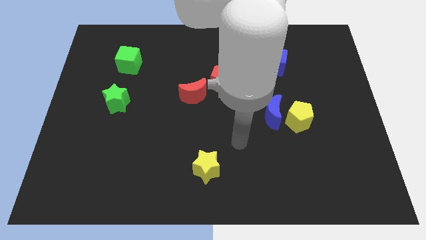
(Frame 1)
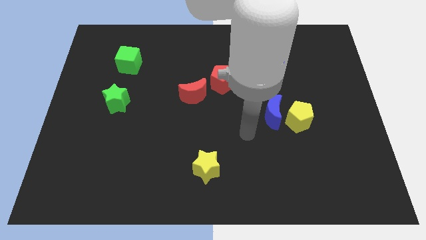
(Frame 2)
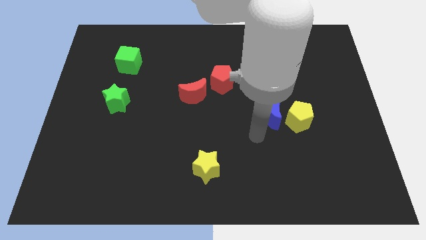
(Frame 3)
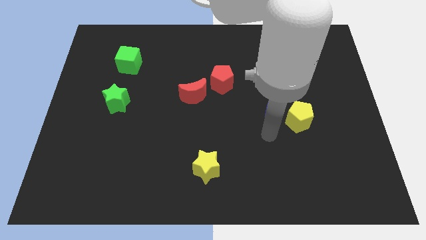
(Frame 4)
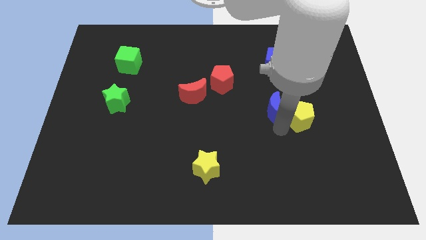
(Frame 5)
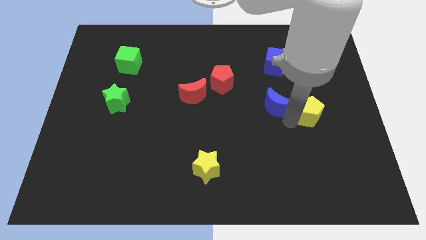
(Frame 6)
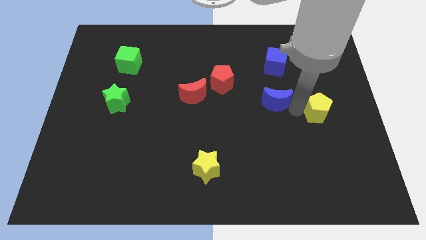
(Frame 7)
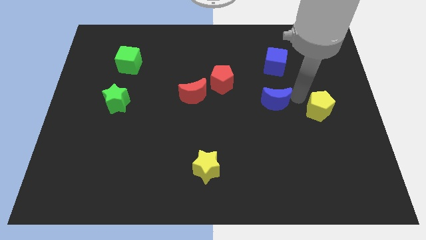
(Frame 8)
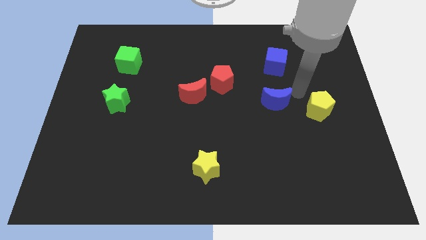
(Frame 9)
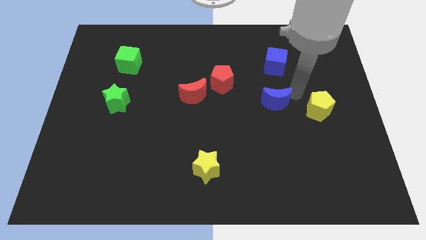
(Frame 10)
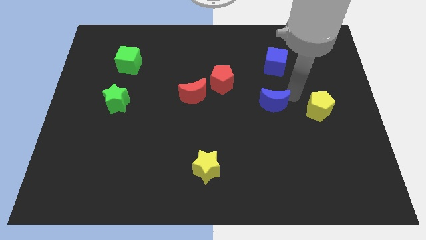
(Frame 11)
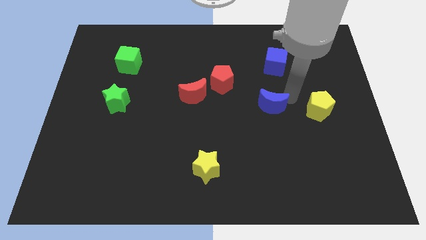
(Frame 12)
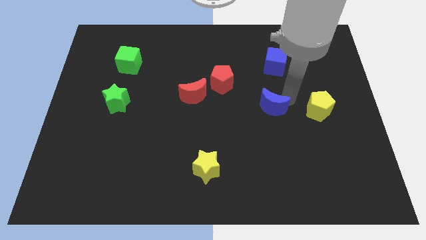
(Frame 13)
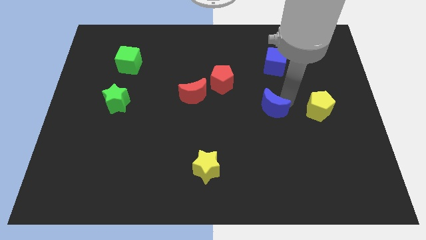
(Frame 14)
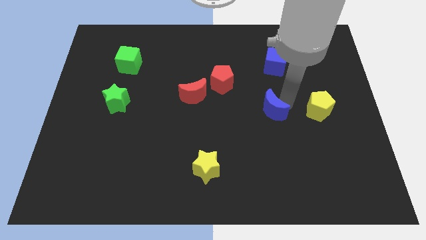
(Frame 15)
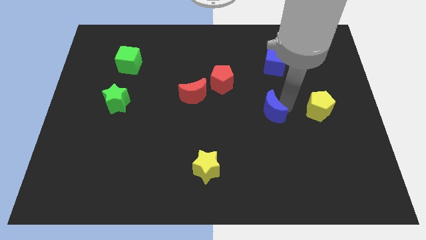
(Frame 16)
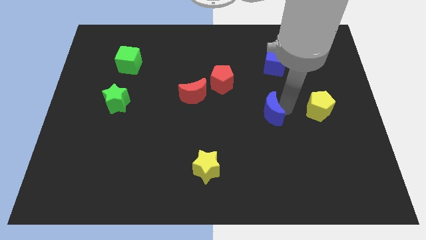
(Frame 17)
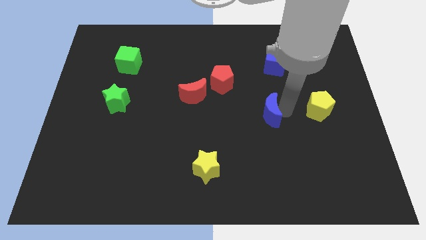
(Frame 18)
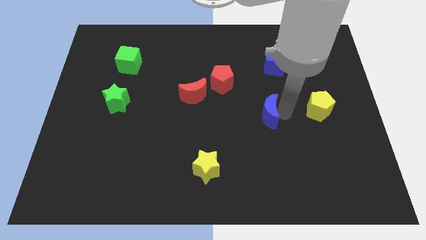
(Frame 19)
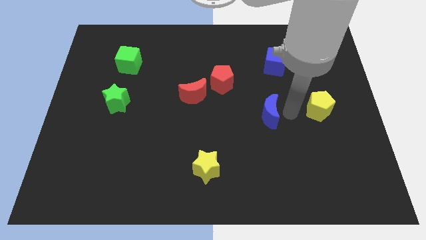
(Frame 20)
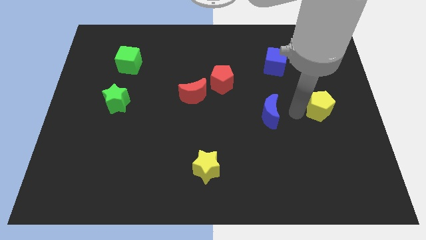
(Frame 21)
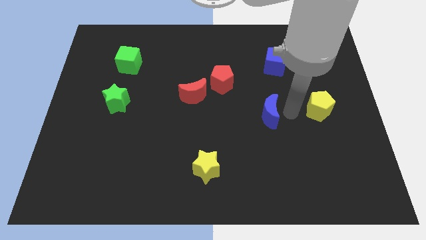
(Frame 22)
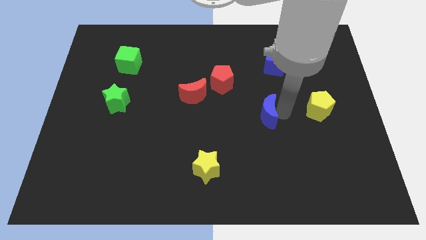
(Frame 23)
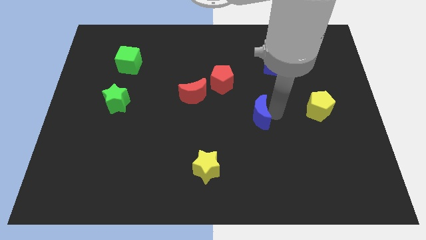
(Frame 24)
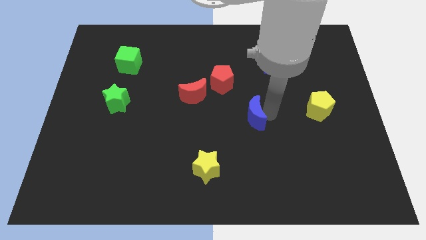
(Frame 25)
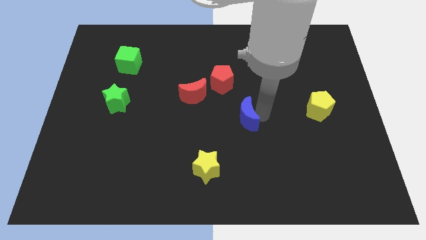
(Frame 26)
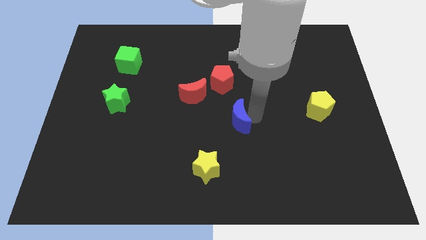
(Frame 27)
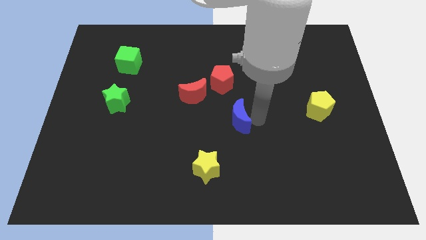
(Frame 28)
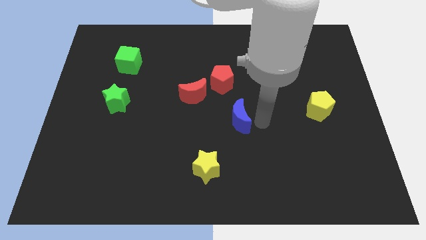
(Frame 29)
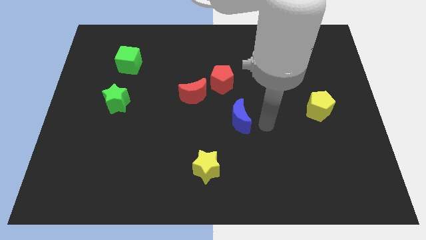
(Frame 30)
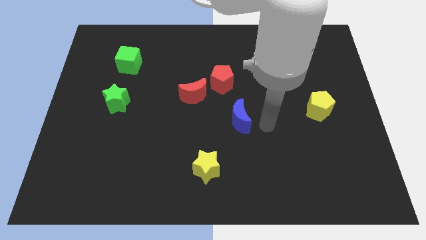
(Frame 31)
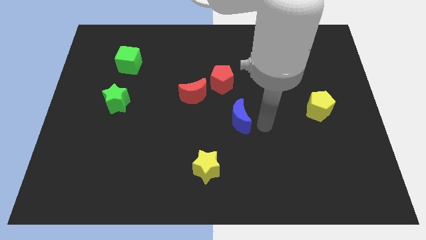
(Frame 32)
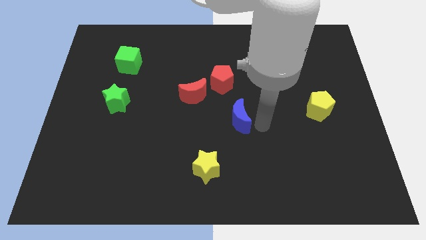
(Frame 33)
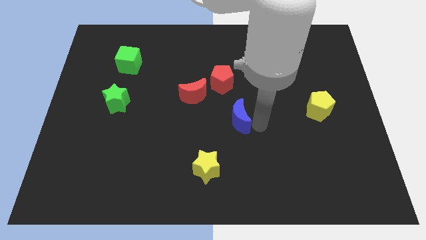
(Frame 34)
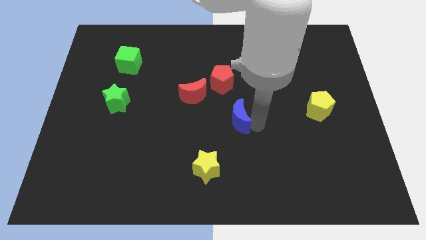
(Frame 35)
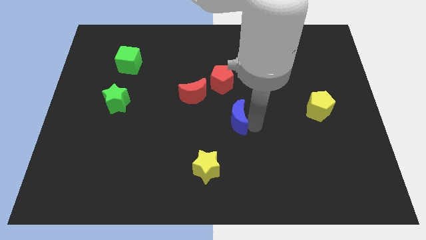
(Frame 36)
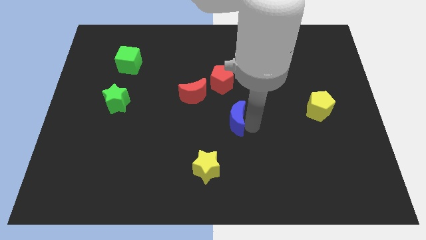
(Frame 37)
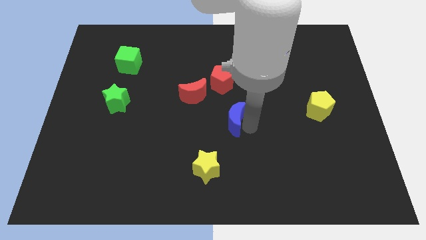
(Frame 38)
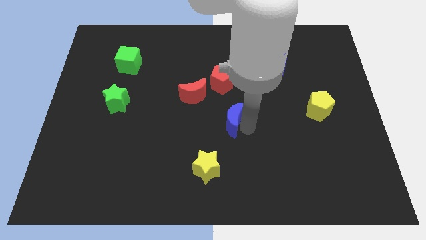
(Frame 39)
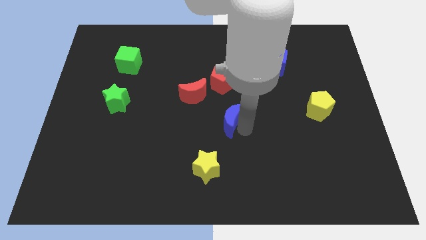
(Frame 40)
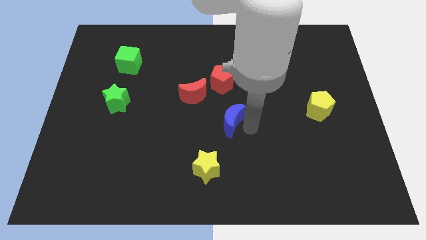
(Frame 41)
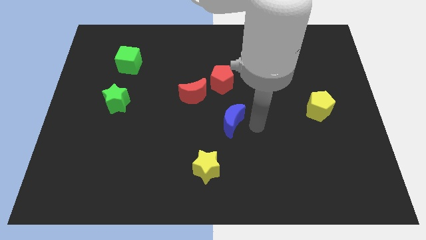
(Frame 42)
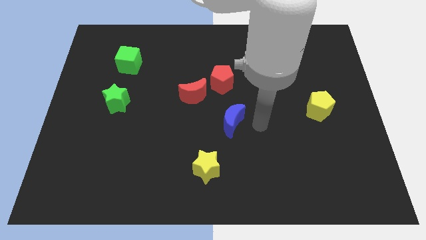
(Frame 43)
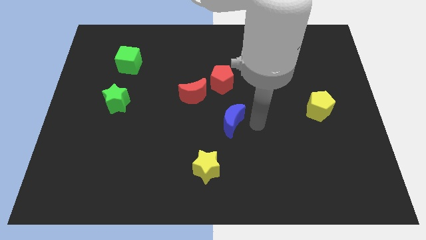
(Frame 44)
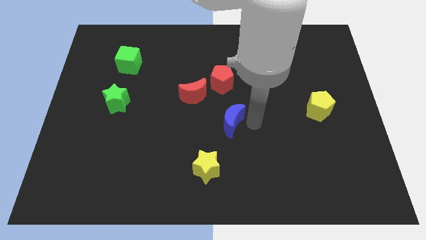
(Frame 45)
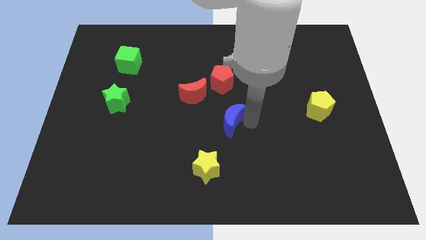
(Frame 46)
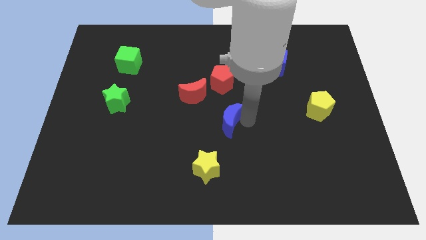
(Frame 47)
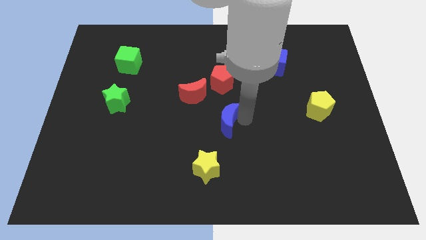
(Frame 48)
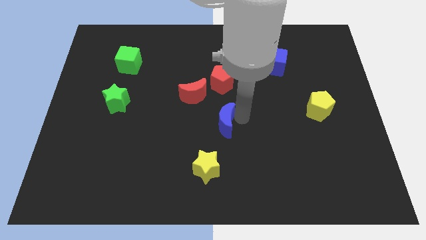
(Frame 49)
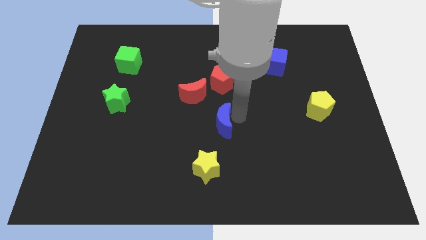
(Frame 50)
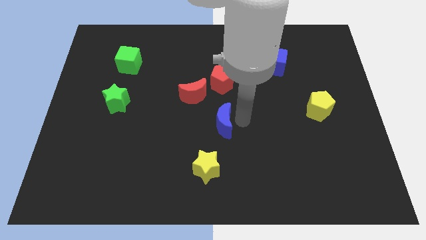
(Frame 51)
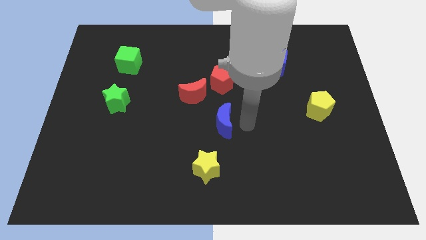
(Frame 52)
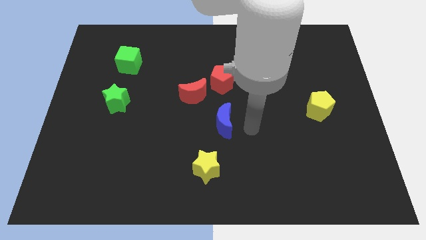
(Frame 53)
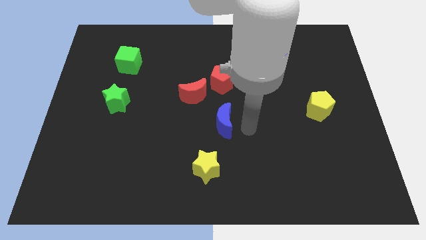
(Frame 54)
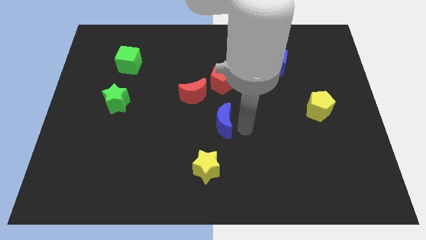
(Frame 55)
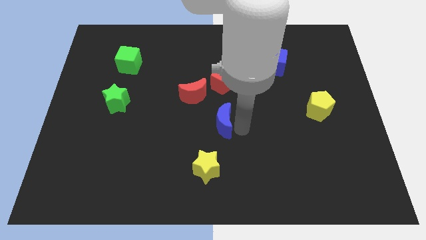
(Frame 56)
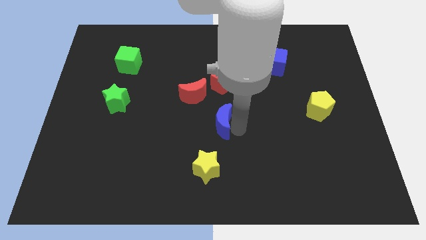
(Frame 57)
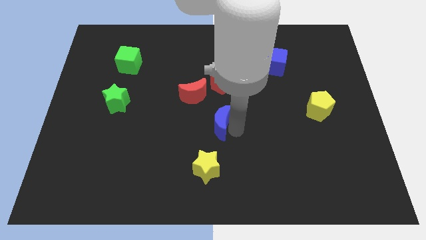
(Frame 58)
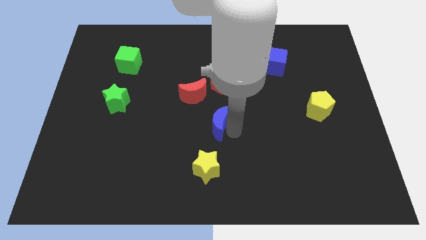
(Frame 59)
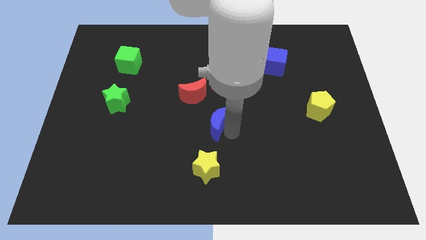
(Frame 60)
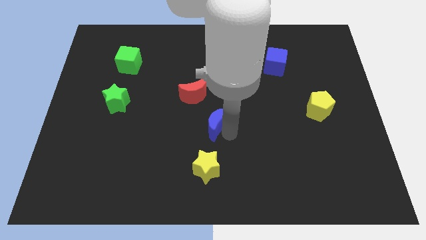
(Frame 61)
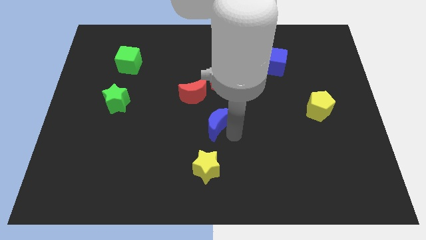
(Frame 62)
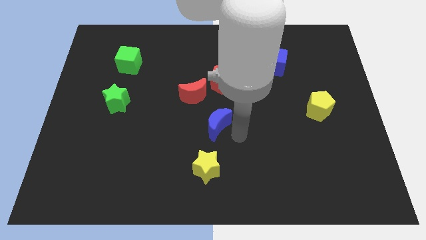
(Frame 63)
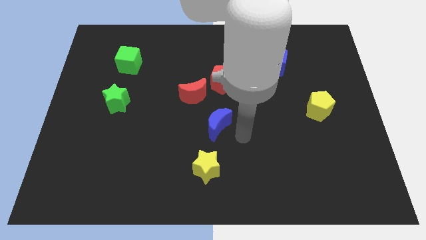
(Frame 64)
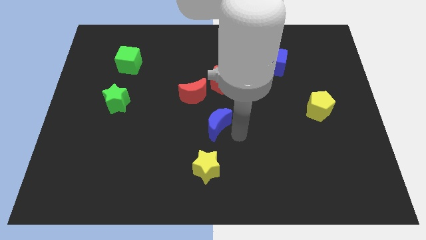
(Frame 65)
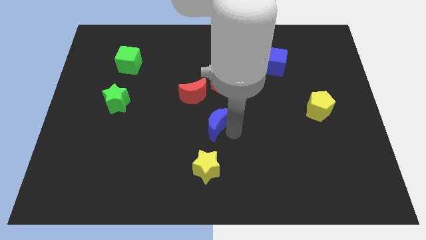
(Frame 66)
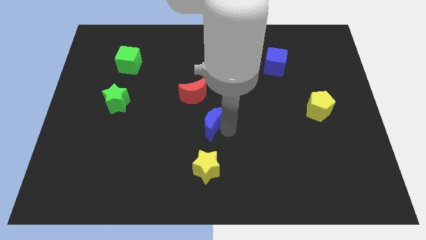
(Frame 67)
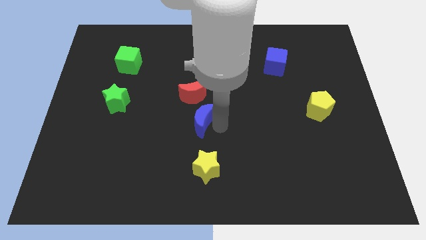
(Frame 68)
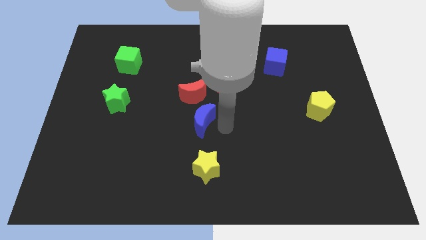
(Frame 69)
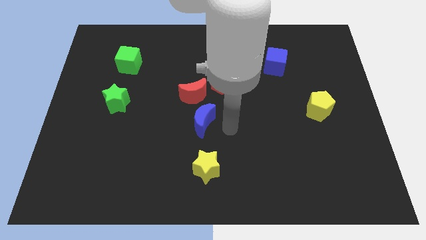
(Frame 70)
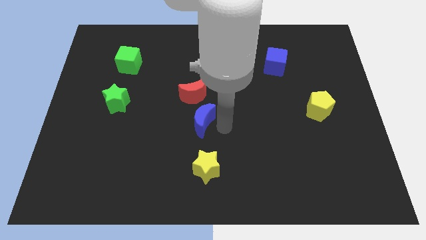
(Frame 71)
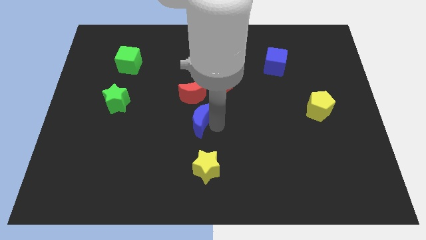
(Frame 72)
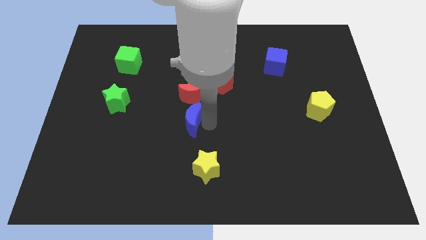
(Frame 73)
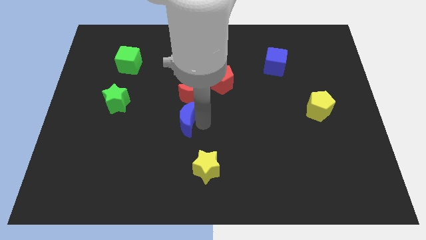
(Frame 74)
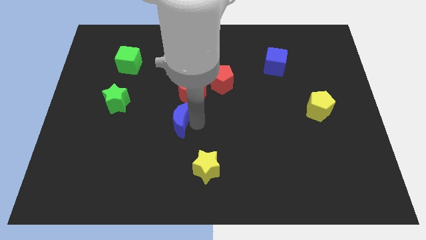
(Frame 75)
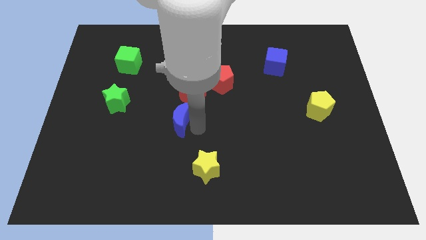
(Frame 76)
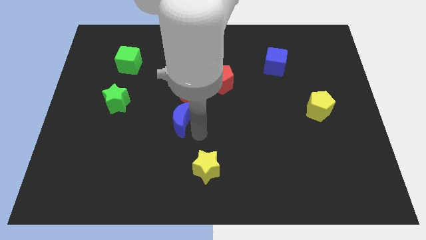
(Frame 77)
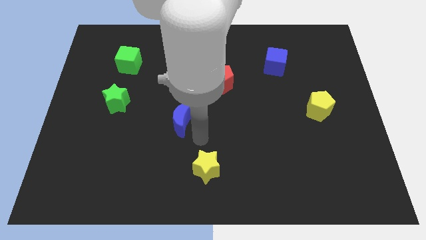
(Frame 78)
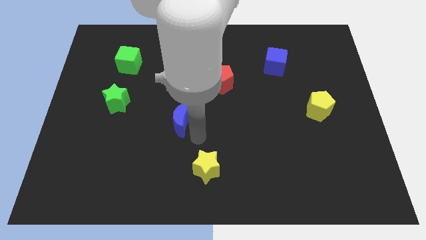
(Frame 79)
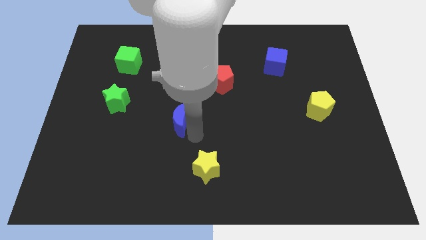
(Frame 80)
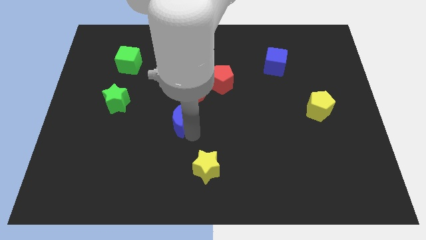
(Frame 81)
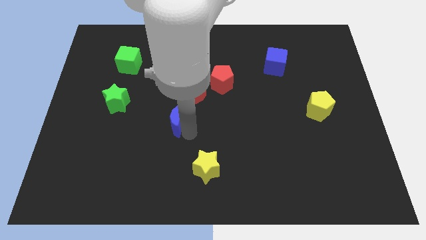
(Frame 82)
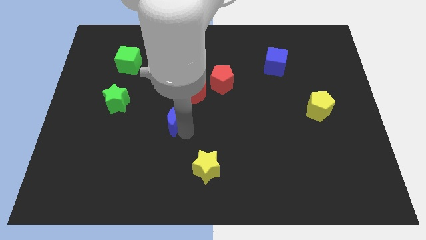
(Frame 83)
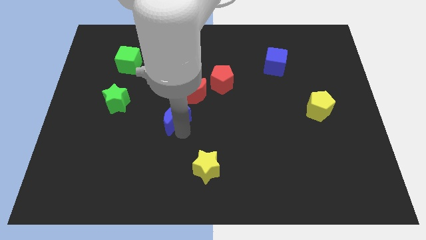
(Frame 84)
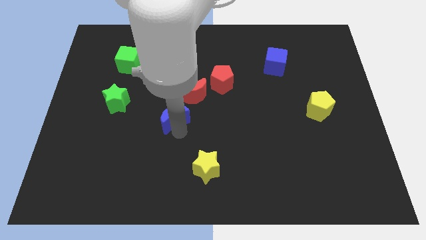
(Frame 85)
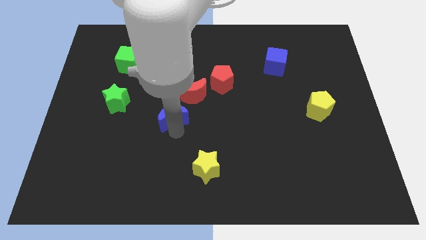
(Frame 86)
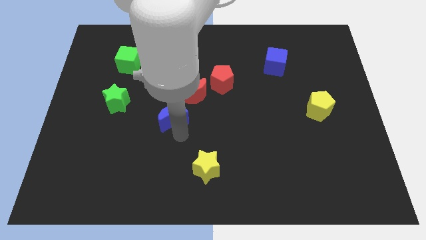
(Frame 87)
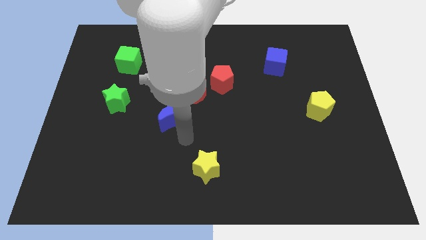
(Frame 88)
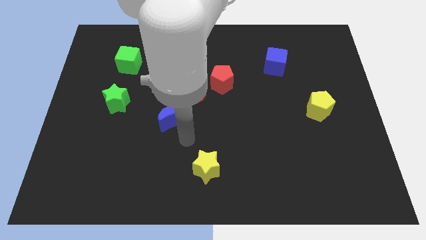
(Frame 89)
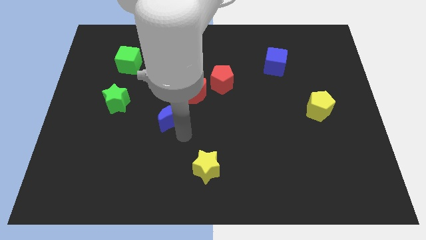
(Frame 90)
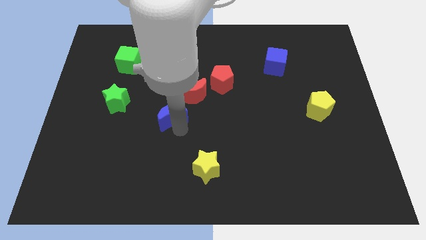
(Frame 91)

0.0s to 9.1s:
push the blue moon right of the green star
